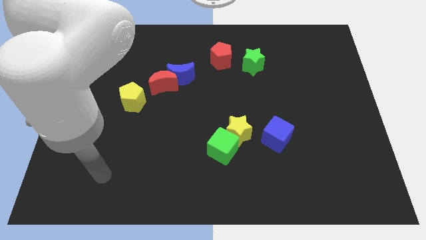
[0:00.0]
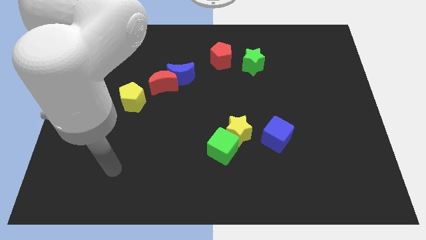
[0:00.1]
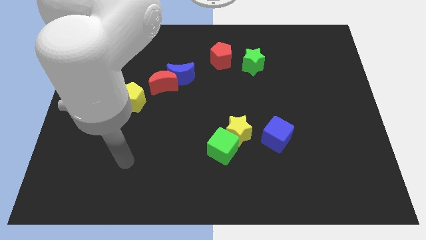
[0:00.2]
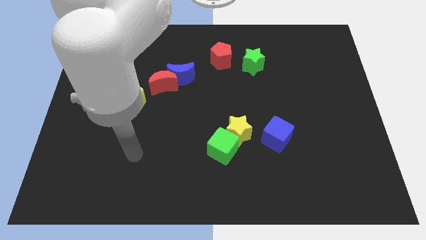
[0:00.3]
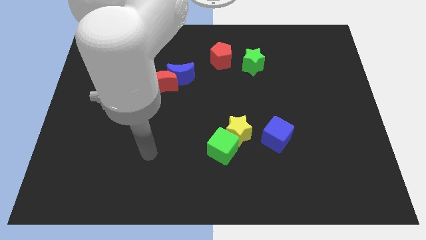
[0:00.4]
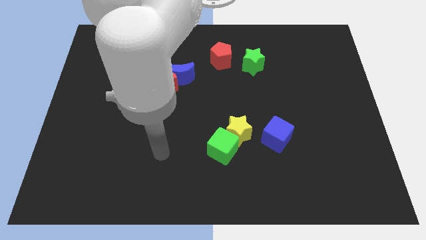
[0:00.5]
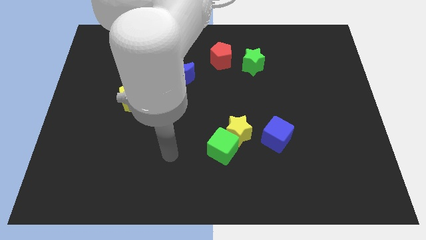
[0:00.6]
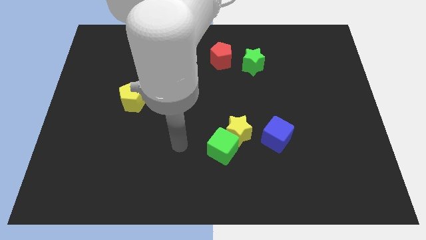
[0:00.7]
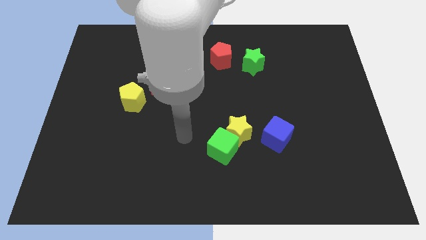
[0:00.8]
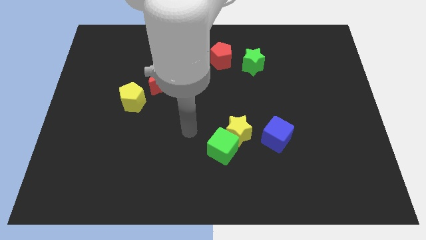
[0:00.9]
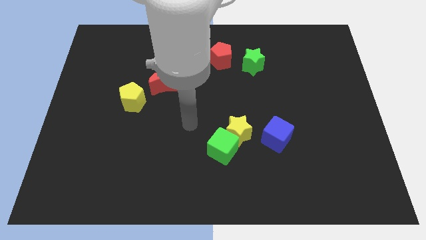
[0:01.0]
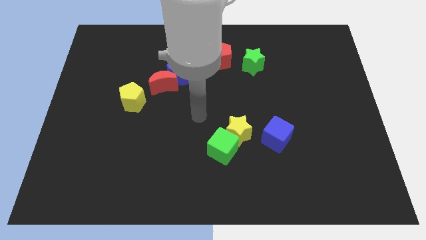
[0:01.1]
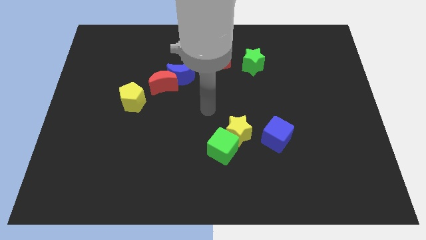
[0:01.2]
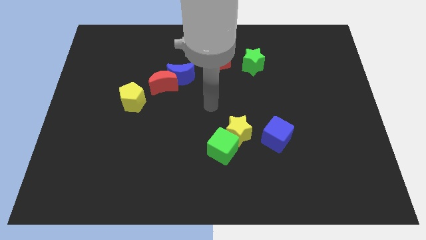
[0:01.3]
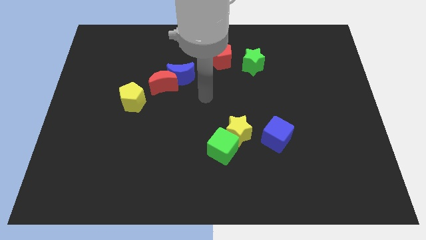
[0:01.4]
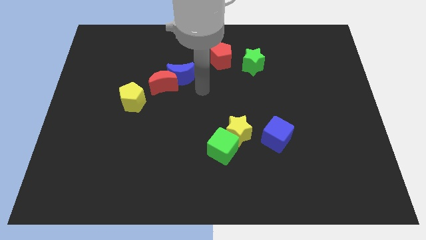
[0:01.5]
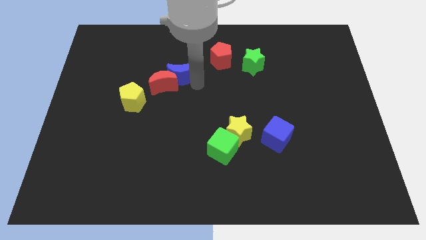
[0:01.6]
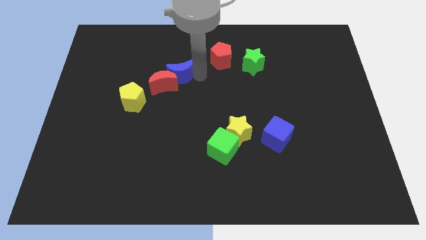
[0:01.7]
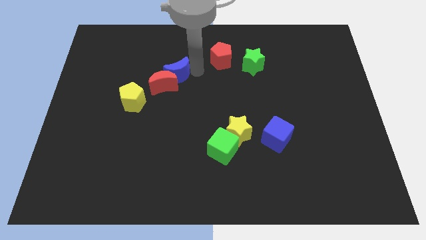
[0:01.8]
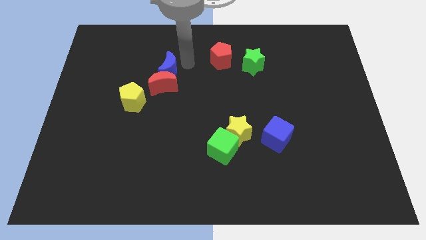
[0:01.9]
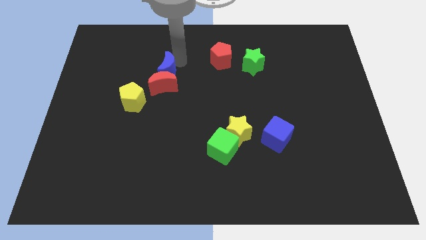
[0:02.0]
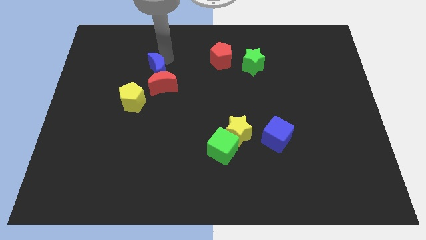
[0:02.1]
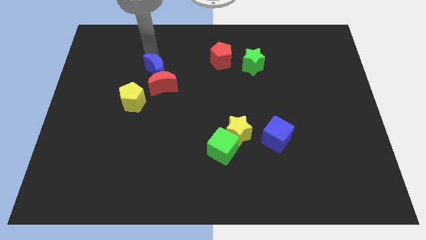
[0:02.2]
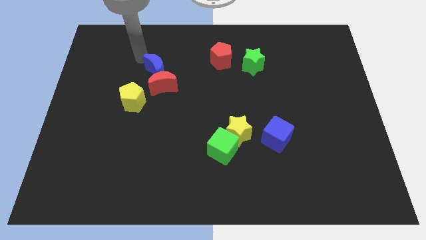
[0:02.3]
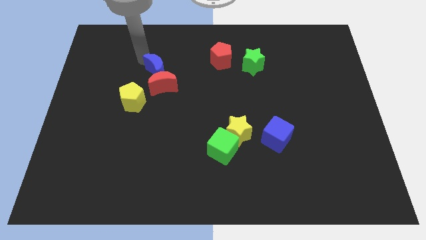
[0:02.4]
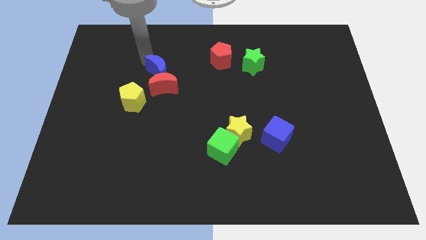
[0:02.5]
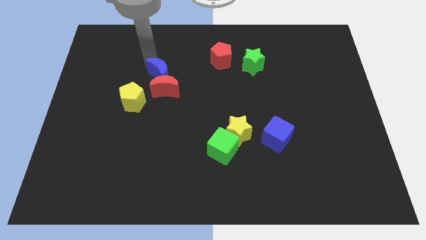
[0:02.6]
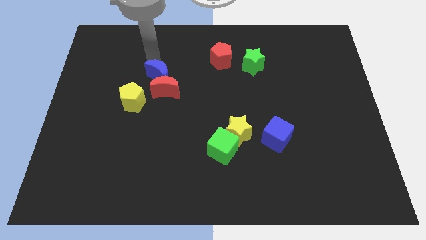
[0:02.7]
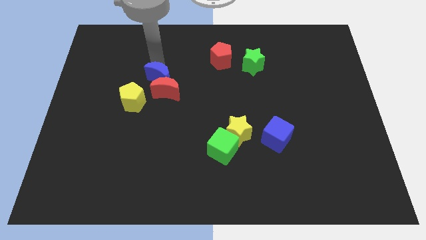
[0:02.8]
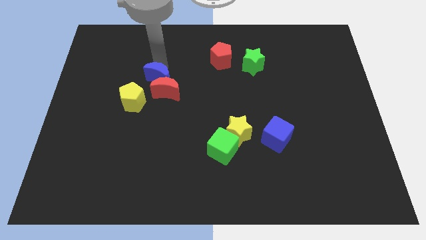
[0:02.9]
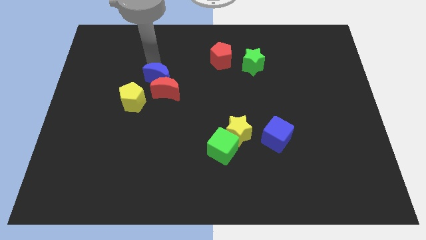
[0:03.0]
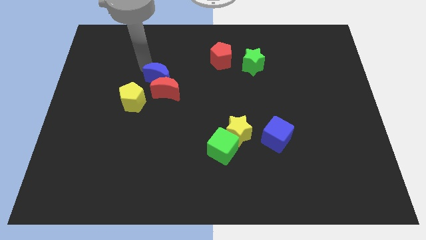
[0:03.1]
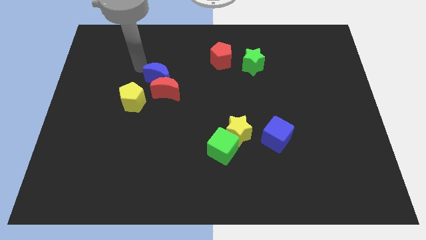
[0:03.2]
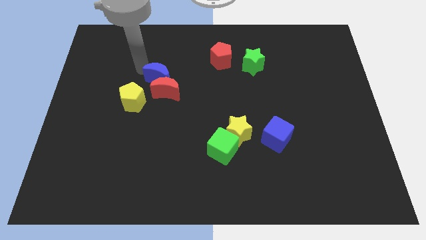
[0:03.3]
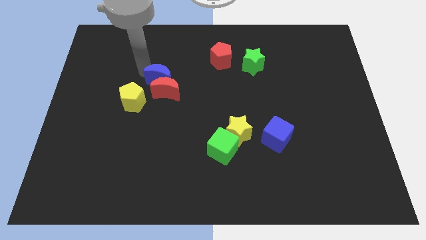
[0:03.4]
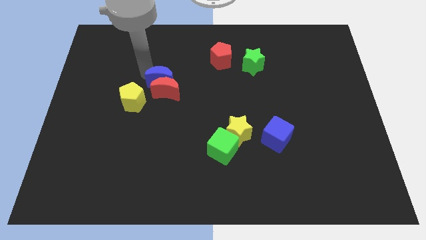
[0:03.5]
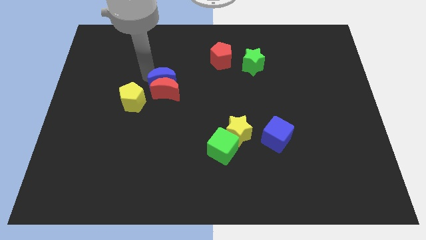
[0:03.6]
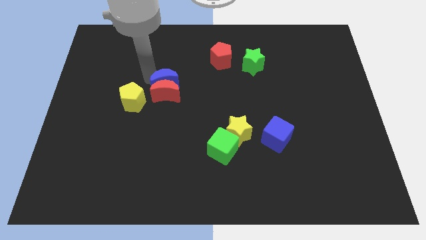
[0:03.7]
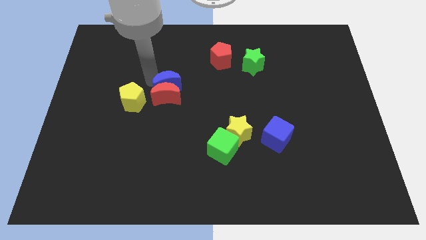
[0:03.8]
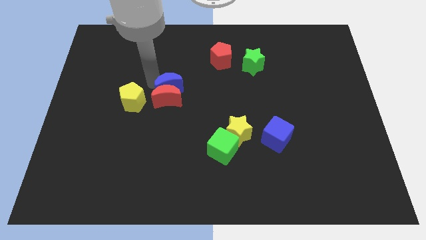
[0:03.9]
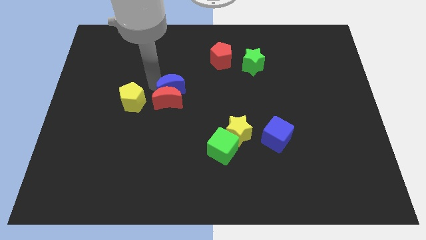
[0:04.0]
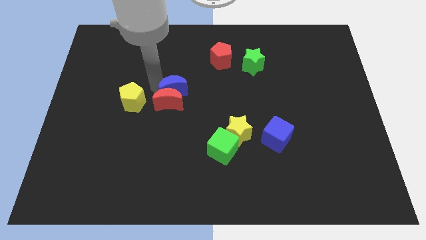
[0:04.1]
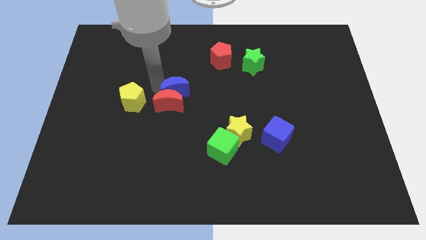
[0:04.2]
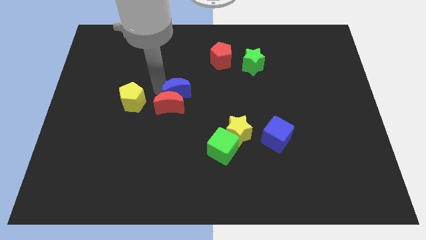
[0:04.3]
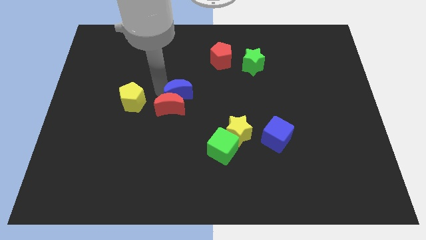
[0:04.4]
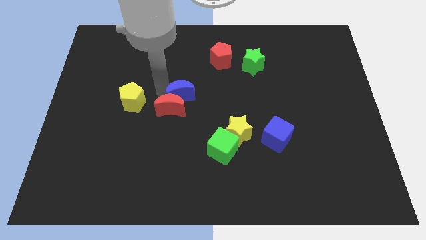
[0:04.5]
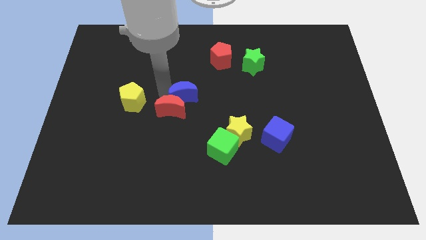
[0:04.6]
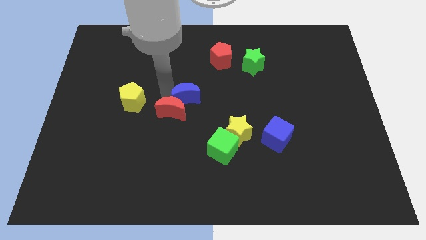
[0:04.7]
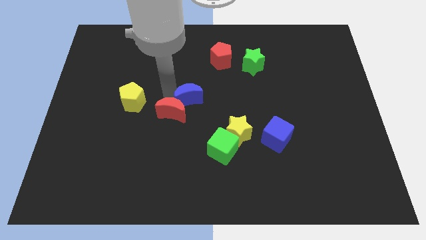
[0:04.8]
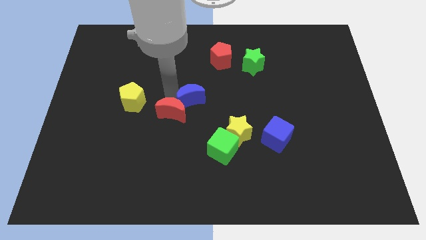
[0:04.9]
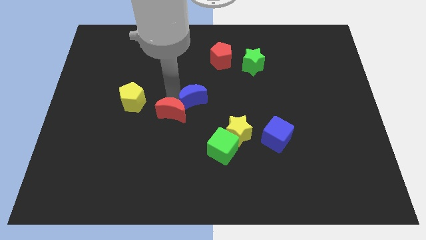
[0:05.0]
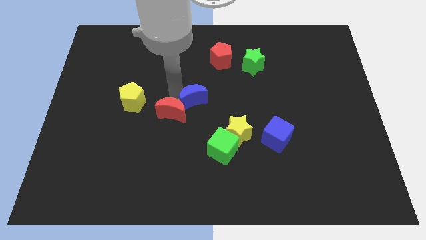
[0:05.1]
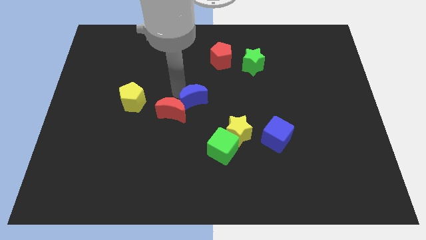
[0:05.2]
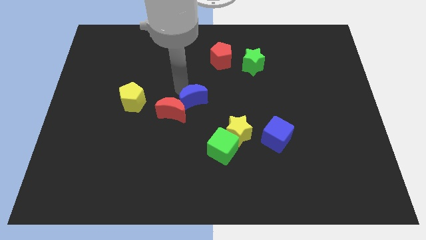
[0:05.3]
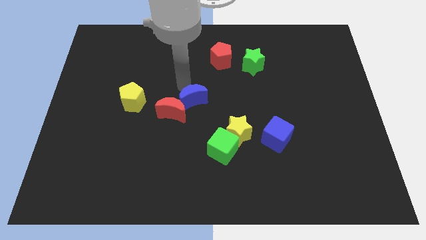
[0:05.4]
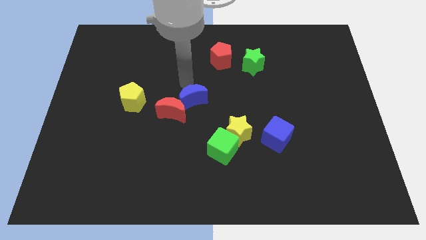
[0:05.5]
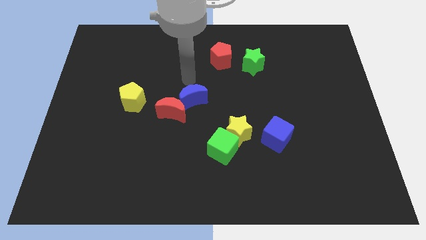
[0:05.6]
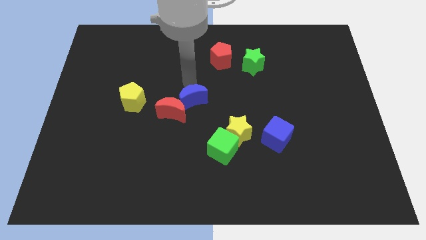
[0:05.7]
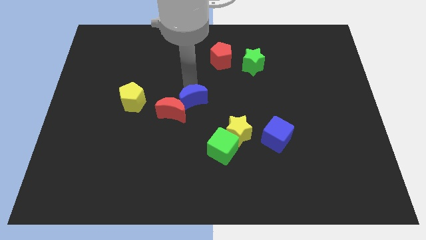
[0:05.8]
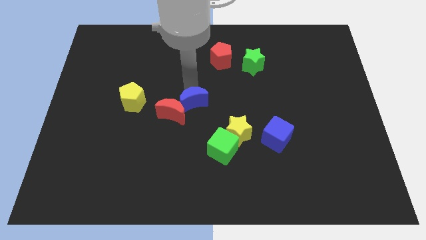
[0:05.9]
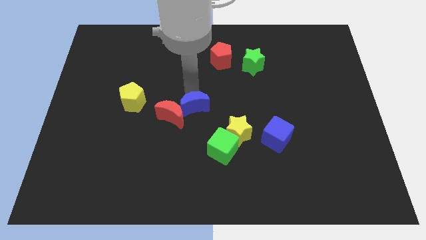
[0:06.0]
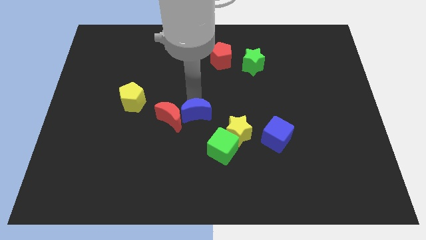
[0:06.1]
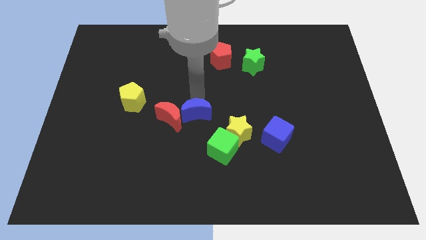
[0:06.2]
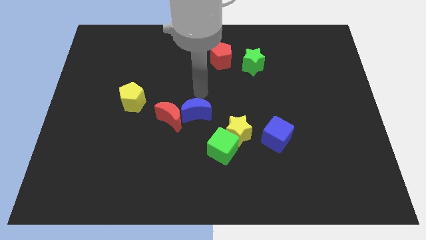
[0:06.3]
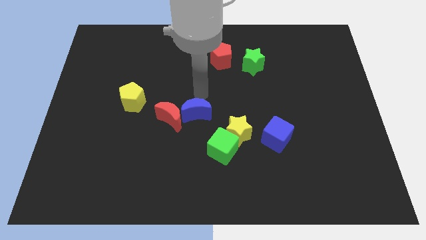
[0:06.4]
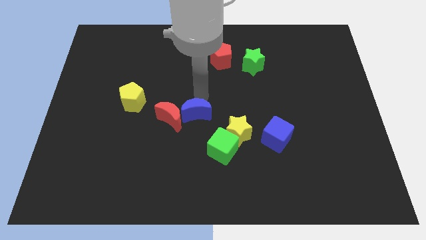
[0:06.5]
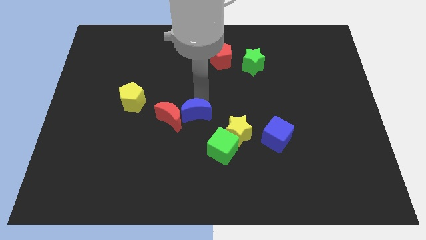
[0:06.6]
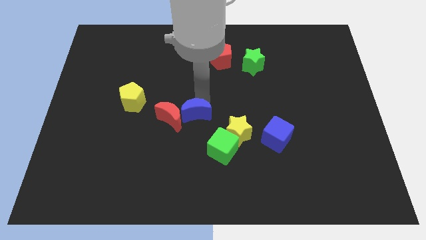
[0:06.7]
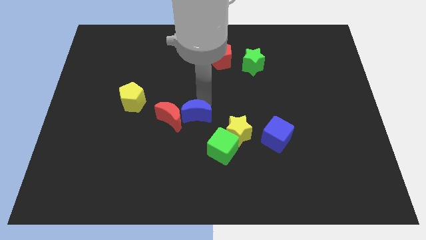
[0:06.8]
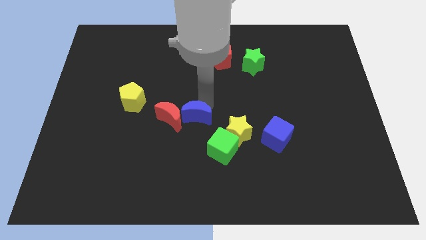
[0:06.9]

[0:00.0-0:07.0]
move the blue moon just left of the yellow star

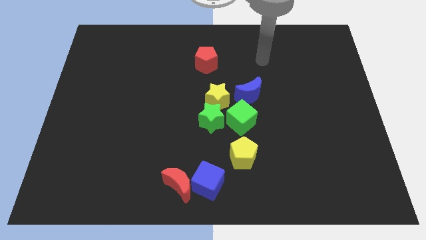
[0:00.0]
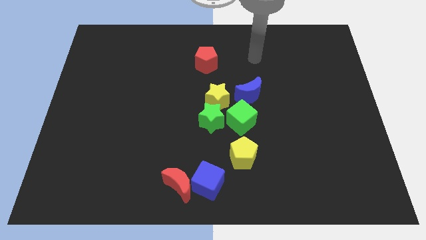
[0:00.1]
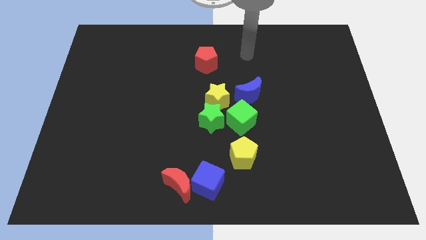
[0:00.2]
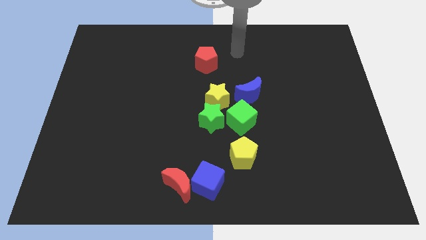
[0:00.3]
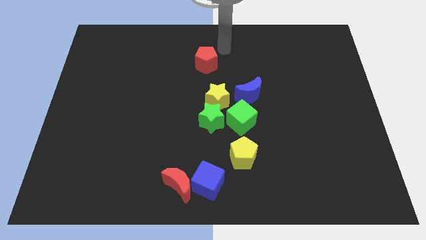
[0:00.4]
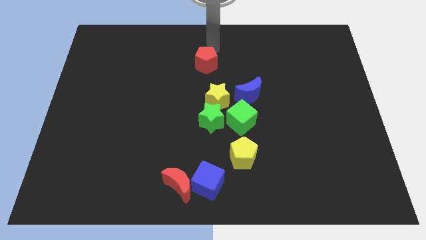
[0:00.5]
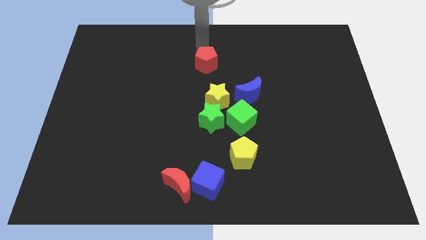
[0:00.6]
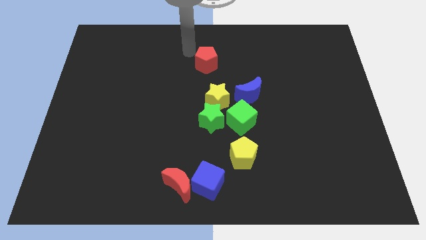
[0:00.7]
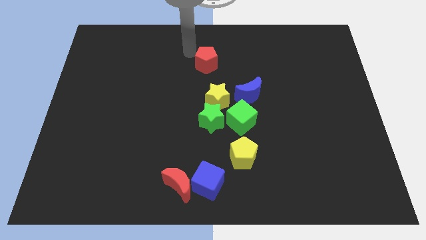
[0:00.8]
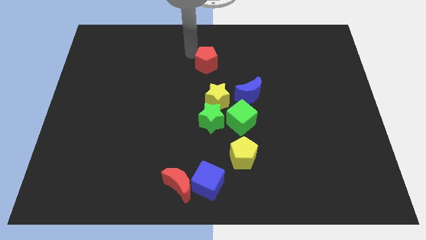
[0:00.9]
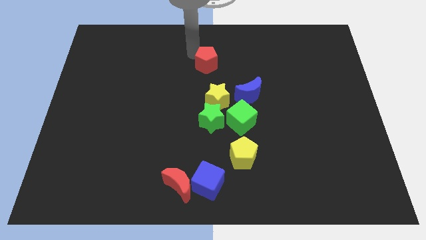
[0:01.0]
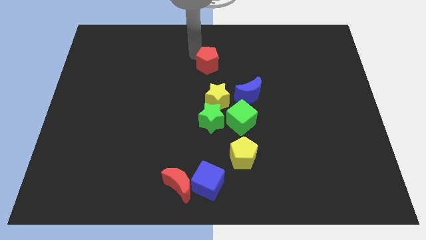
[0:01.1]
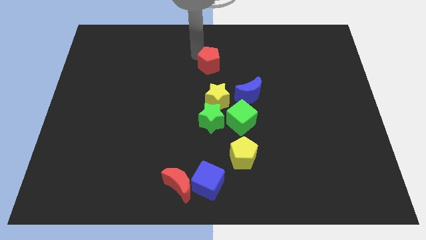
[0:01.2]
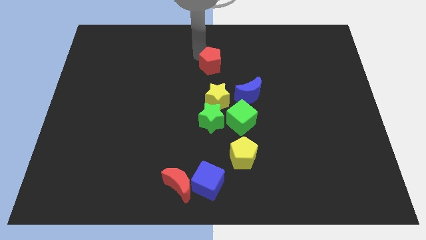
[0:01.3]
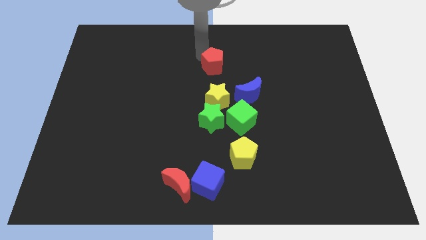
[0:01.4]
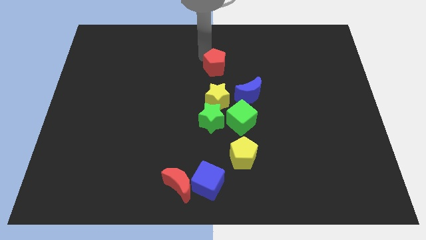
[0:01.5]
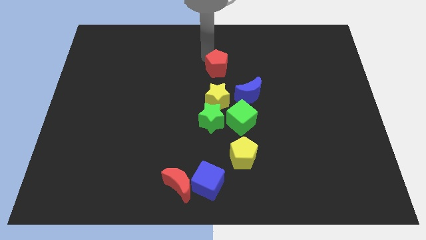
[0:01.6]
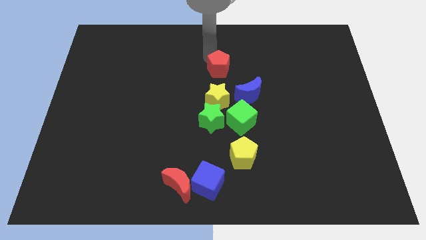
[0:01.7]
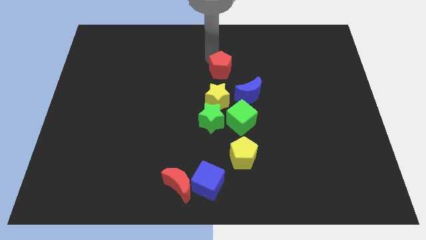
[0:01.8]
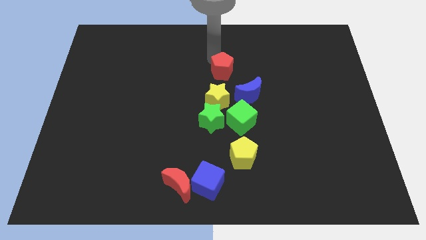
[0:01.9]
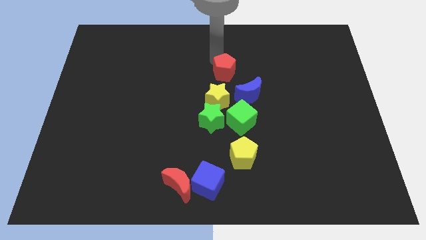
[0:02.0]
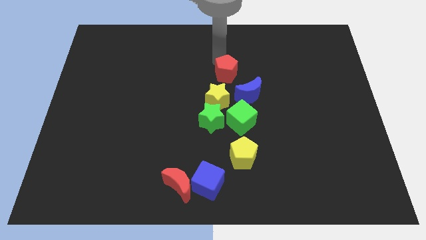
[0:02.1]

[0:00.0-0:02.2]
push the red pentagon above the green cube
